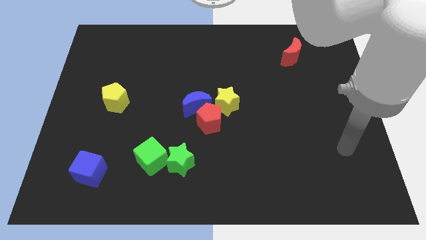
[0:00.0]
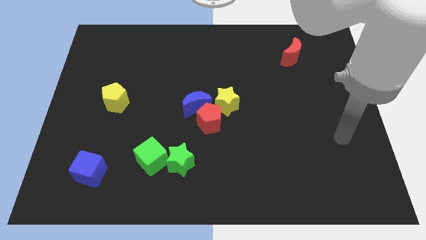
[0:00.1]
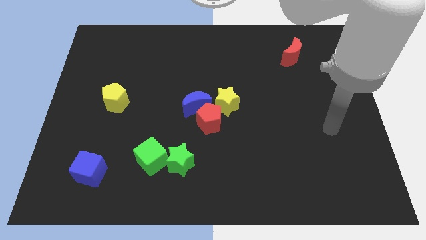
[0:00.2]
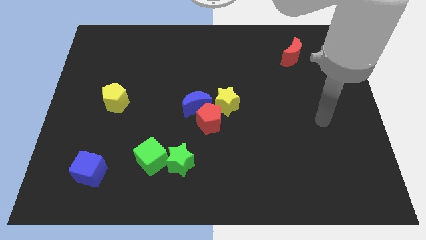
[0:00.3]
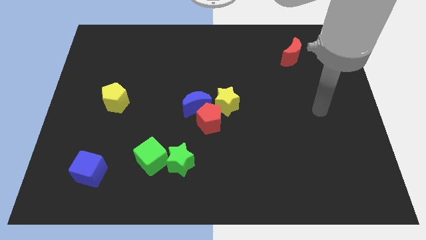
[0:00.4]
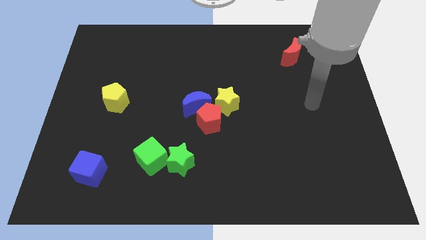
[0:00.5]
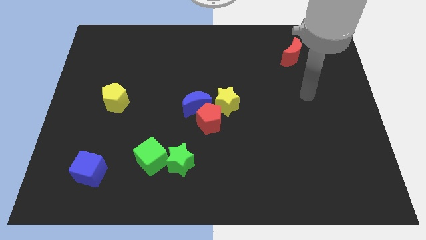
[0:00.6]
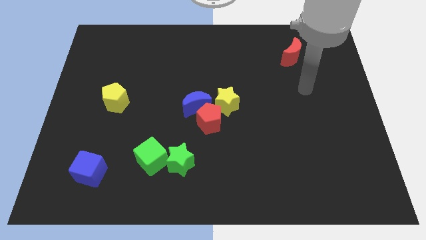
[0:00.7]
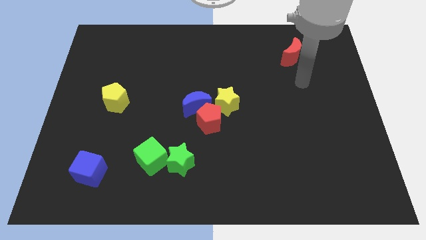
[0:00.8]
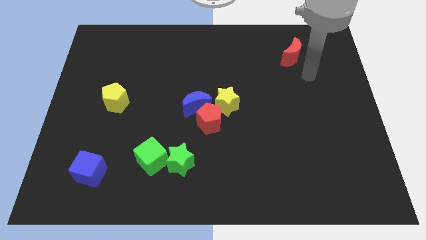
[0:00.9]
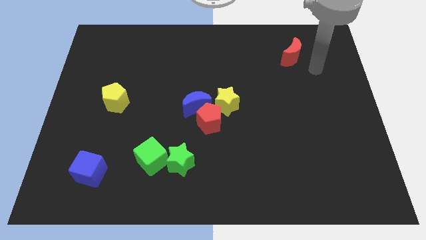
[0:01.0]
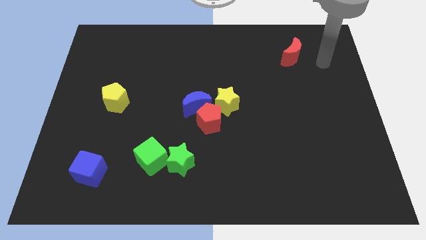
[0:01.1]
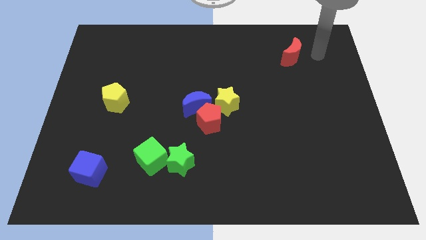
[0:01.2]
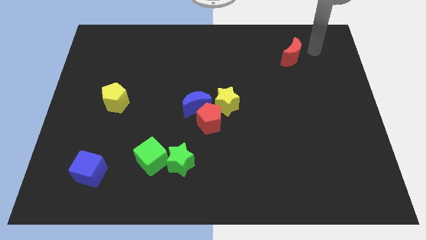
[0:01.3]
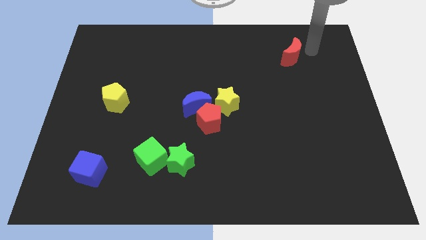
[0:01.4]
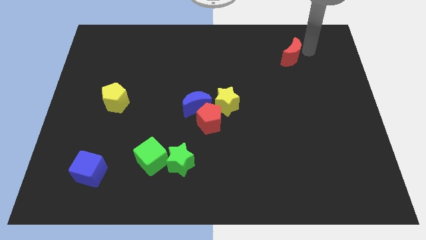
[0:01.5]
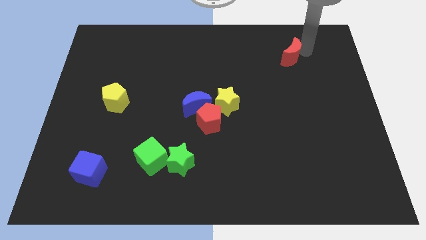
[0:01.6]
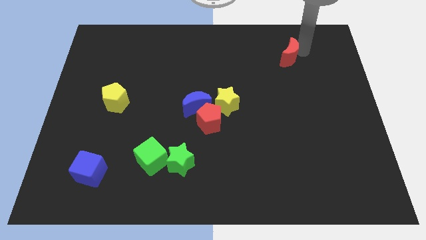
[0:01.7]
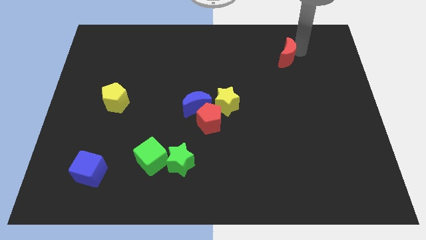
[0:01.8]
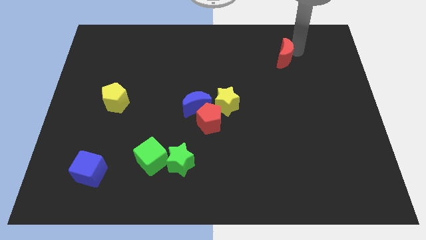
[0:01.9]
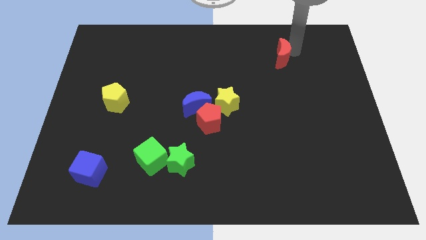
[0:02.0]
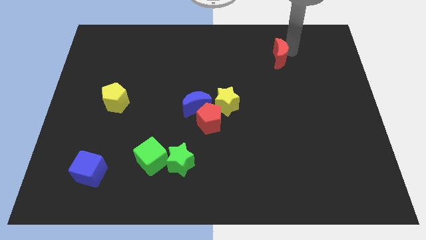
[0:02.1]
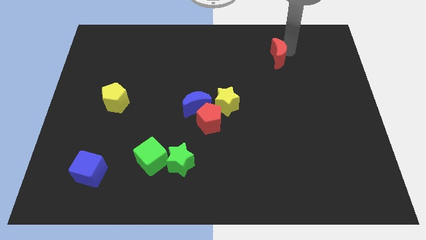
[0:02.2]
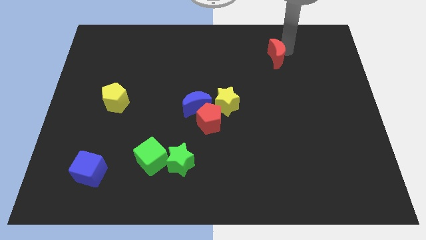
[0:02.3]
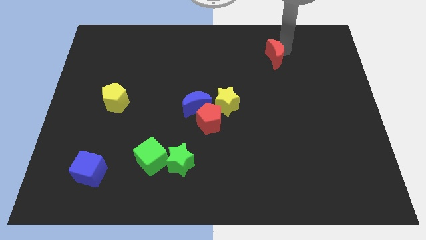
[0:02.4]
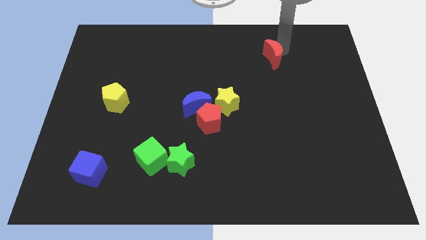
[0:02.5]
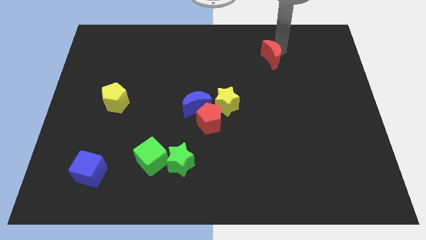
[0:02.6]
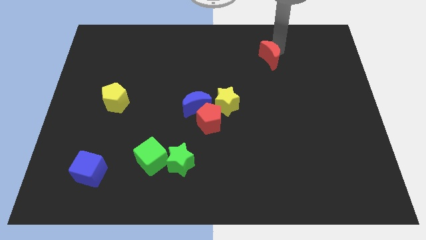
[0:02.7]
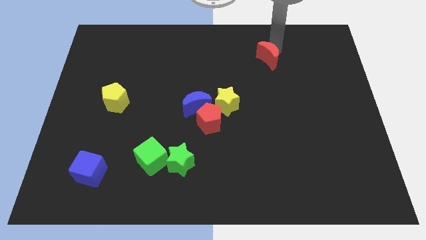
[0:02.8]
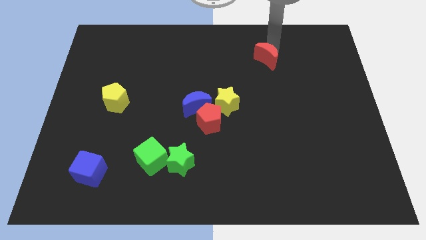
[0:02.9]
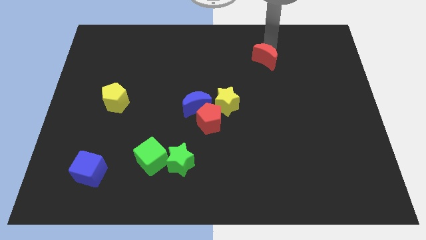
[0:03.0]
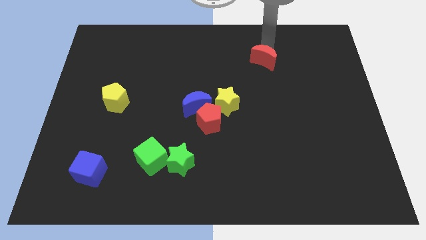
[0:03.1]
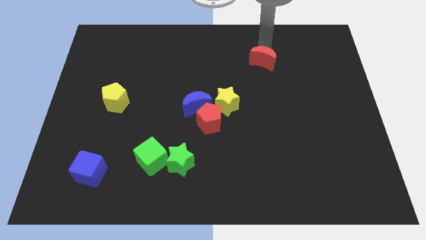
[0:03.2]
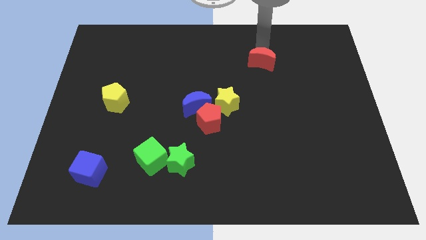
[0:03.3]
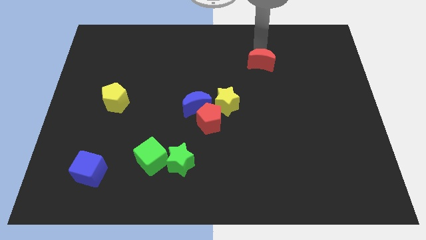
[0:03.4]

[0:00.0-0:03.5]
slide the red moon a little bit down and to the left

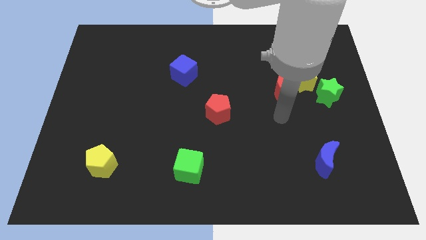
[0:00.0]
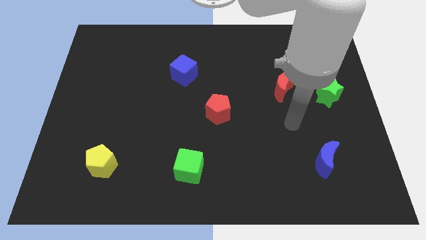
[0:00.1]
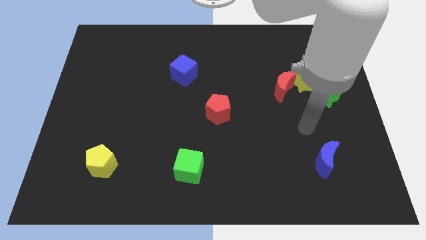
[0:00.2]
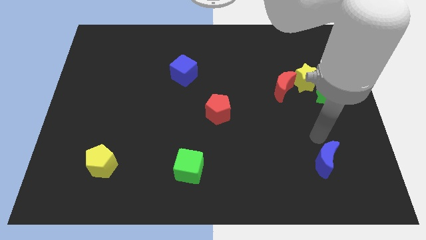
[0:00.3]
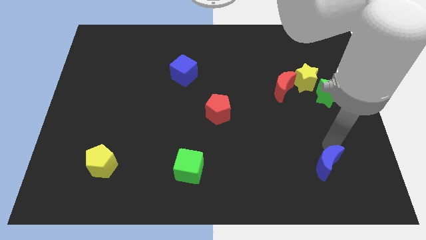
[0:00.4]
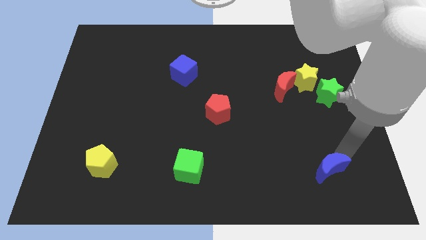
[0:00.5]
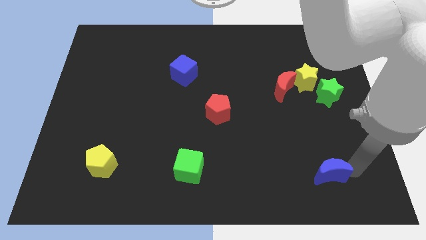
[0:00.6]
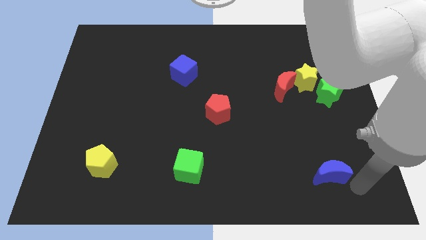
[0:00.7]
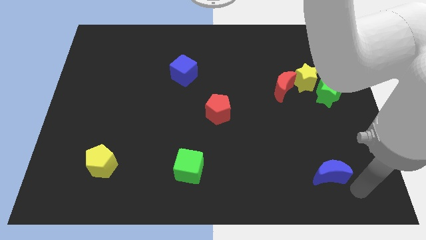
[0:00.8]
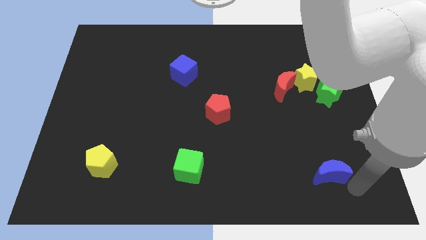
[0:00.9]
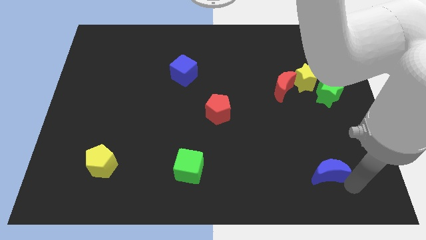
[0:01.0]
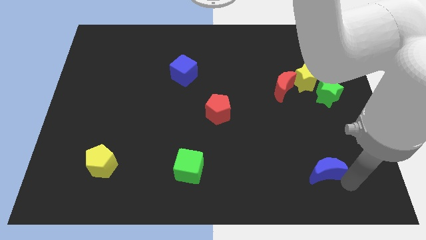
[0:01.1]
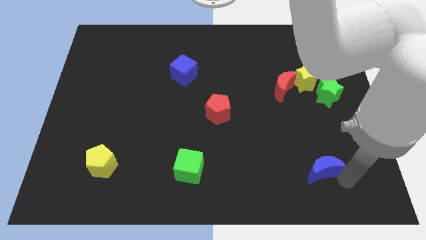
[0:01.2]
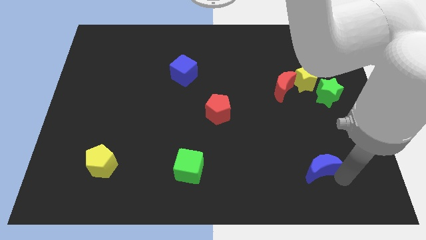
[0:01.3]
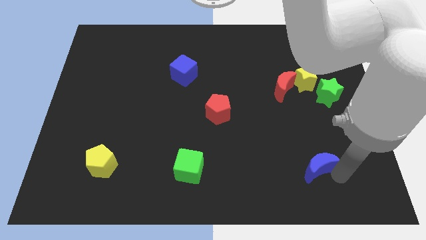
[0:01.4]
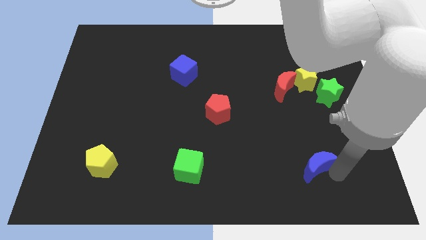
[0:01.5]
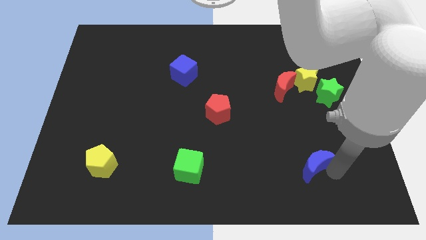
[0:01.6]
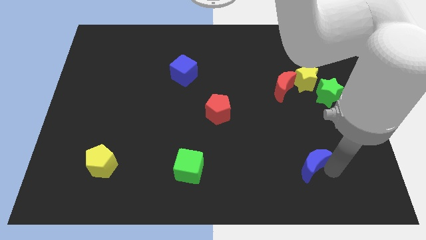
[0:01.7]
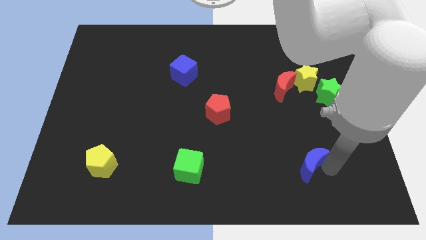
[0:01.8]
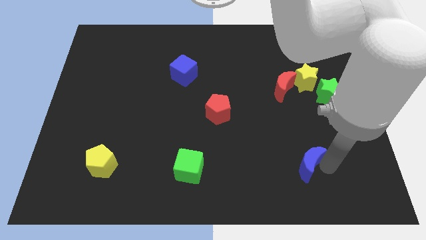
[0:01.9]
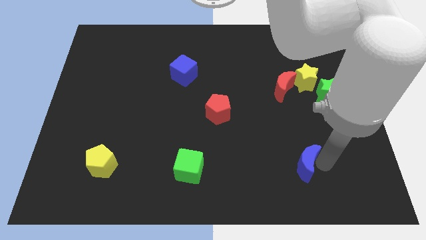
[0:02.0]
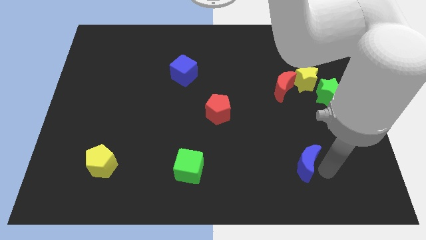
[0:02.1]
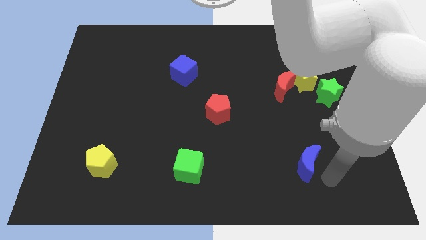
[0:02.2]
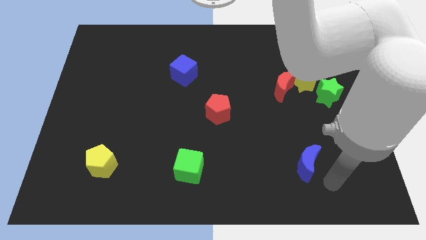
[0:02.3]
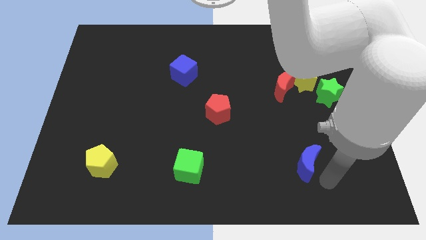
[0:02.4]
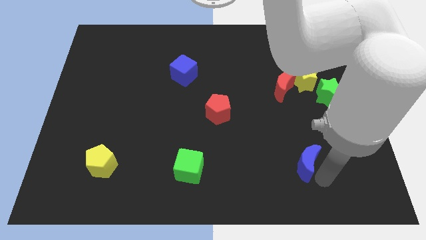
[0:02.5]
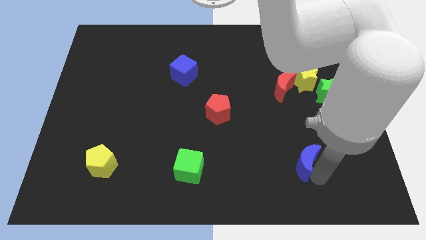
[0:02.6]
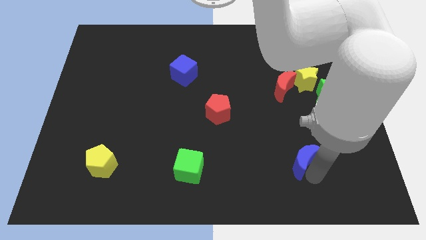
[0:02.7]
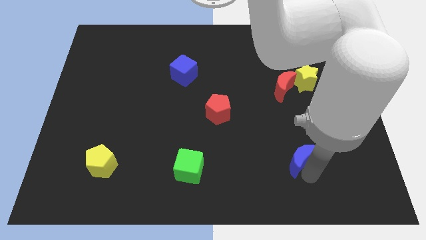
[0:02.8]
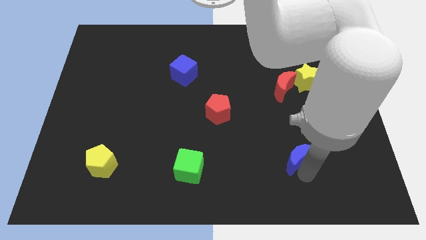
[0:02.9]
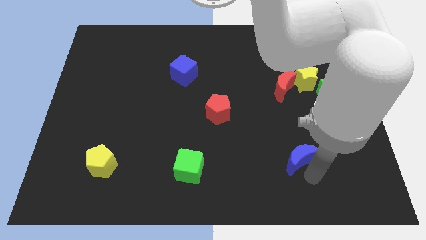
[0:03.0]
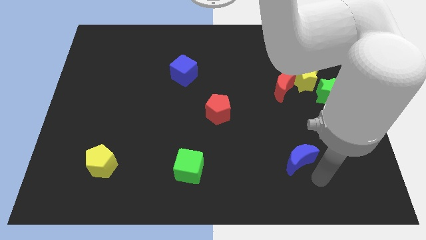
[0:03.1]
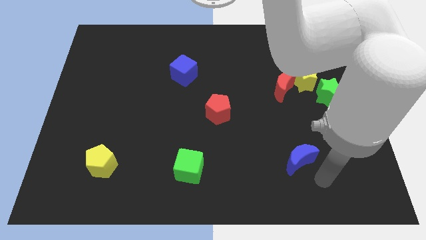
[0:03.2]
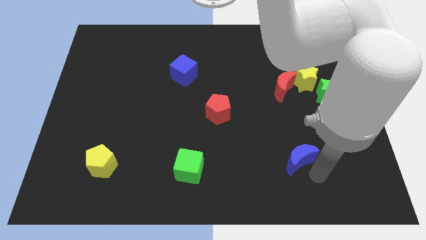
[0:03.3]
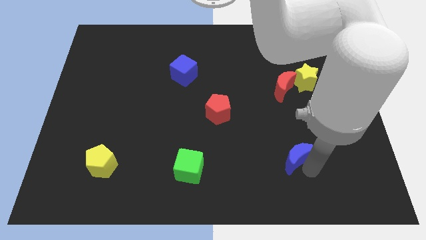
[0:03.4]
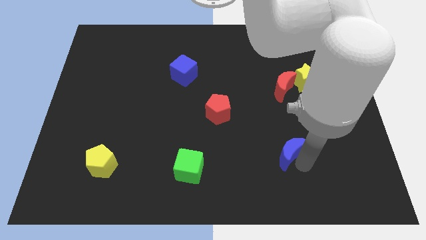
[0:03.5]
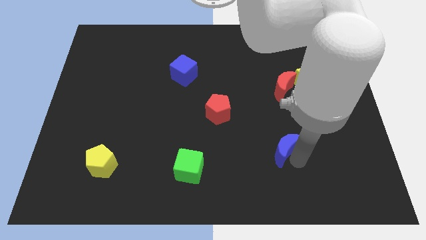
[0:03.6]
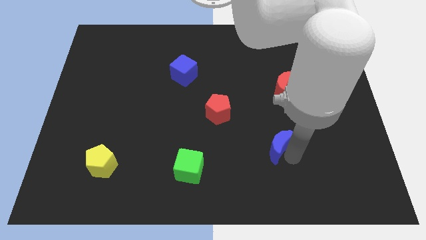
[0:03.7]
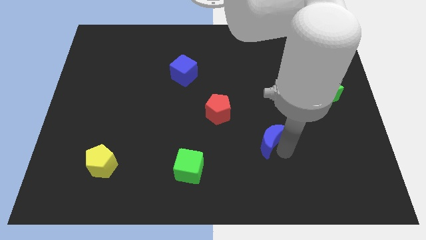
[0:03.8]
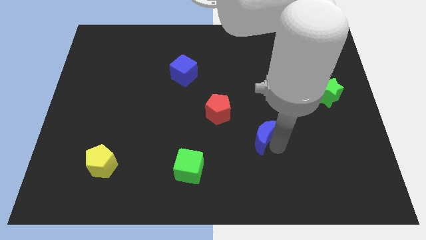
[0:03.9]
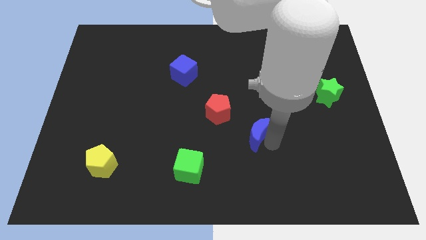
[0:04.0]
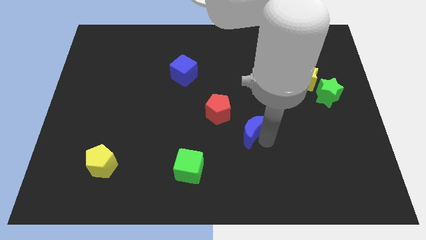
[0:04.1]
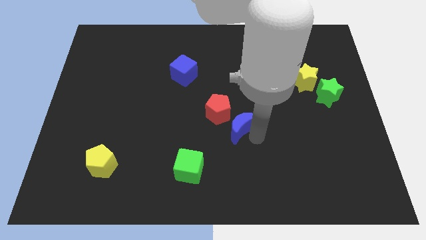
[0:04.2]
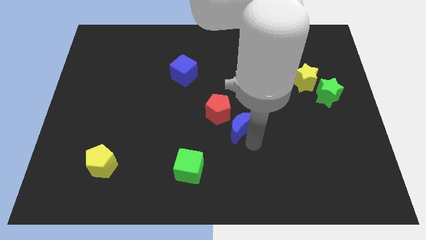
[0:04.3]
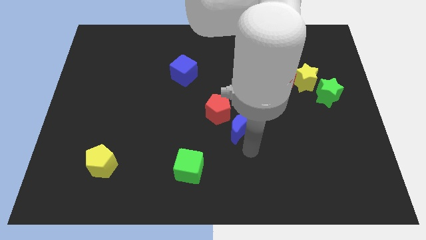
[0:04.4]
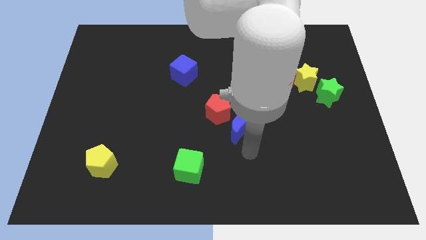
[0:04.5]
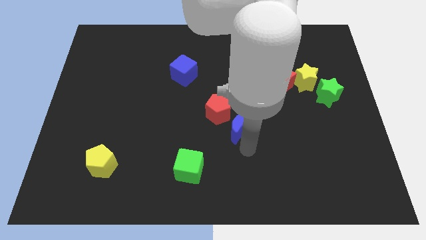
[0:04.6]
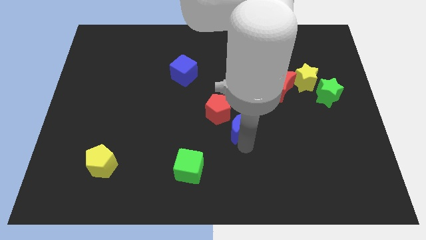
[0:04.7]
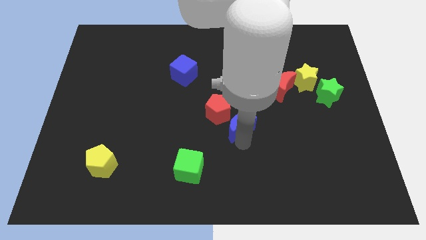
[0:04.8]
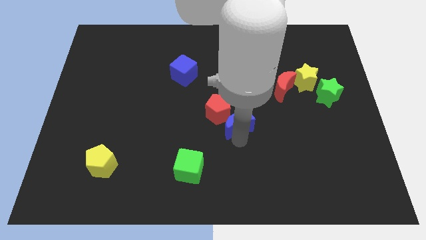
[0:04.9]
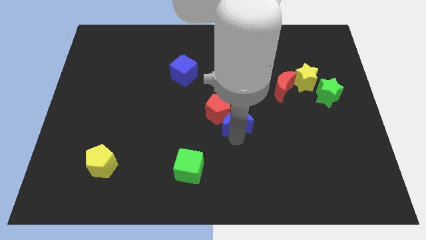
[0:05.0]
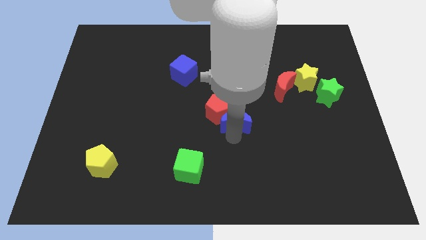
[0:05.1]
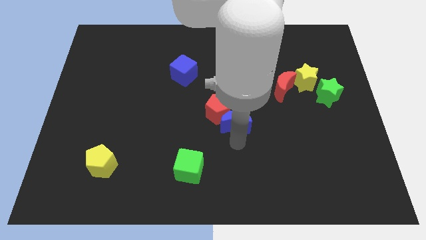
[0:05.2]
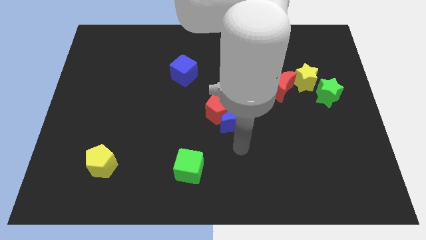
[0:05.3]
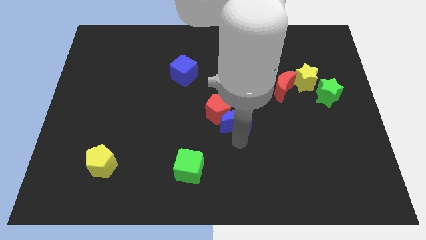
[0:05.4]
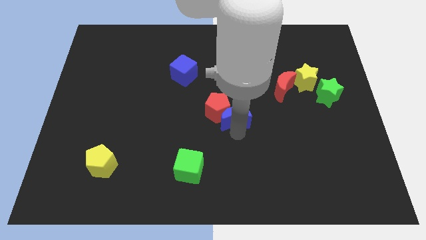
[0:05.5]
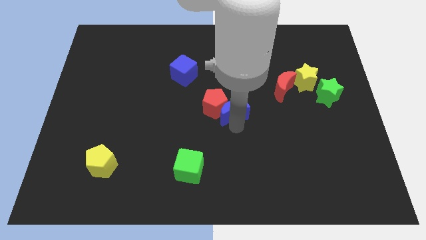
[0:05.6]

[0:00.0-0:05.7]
move the blue moon upwards and left diagonally
